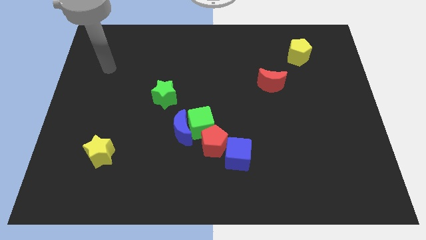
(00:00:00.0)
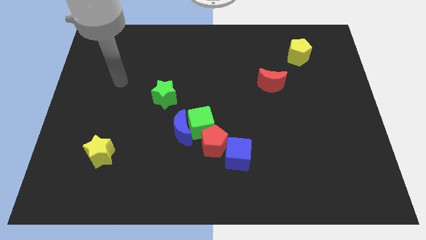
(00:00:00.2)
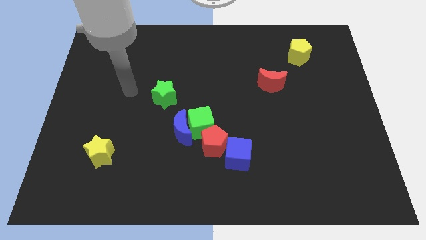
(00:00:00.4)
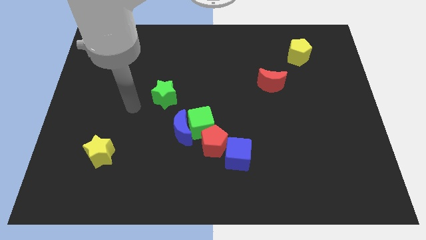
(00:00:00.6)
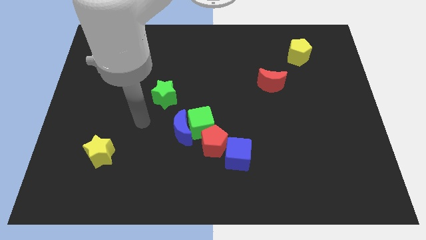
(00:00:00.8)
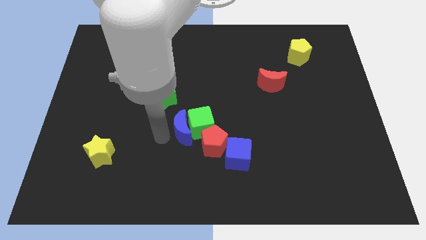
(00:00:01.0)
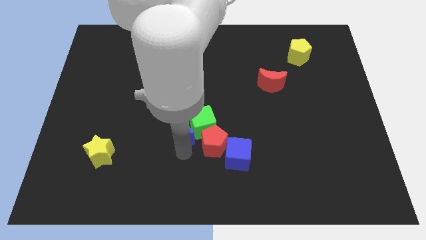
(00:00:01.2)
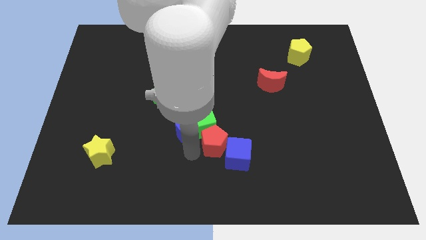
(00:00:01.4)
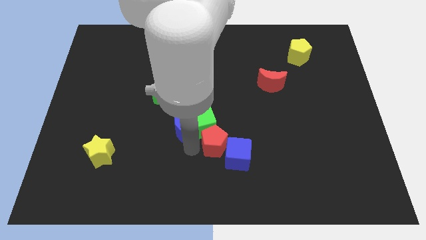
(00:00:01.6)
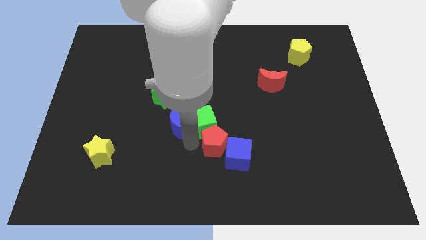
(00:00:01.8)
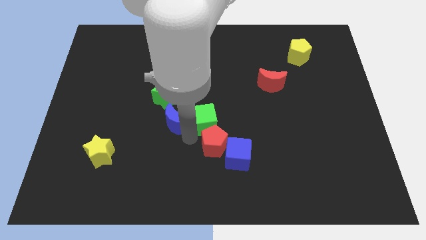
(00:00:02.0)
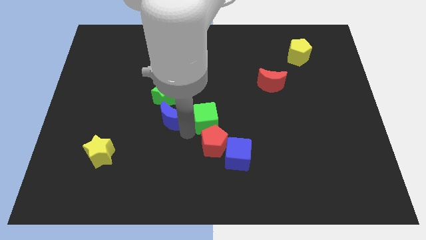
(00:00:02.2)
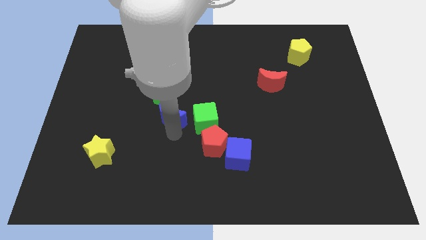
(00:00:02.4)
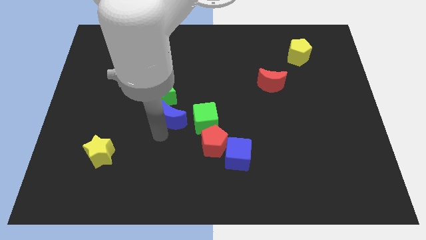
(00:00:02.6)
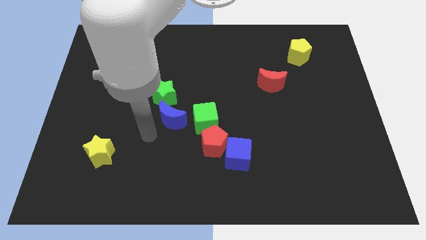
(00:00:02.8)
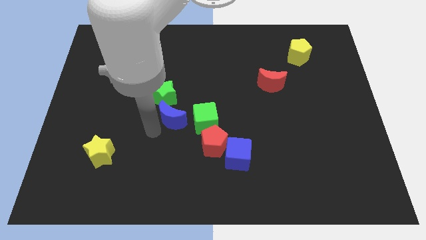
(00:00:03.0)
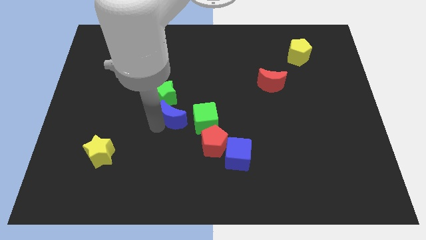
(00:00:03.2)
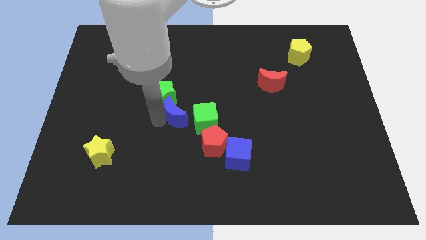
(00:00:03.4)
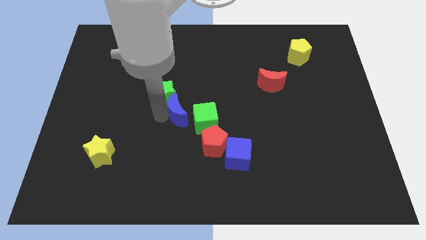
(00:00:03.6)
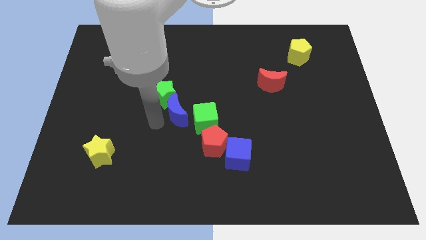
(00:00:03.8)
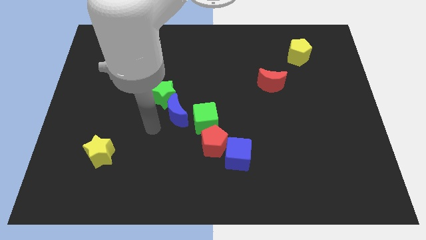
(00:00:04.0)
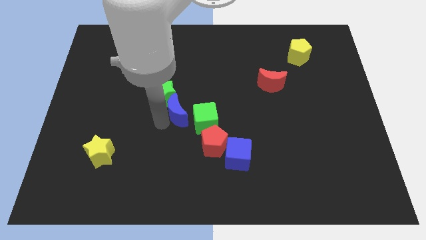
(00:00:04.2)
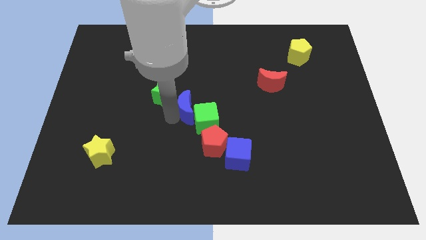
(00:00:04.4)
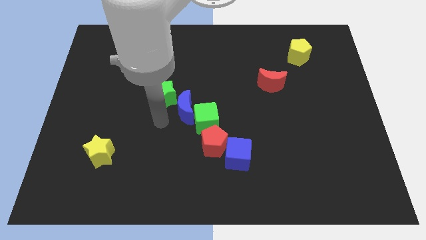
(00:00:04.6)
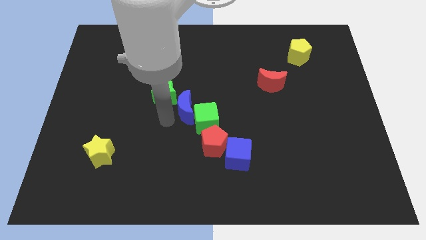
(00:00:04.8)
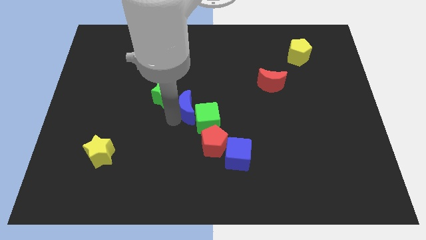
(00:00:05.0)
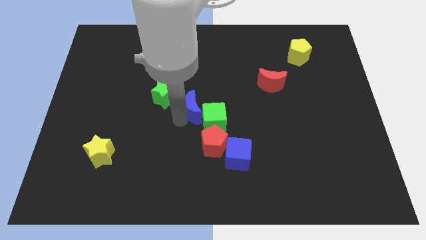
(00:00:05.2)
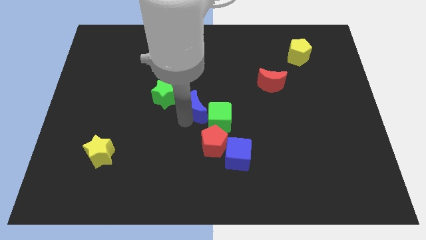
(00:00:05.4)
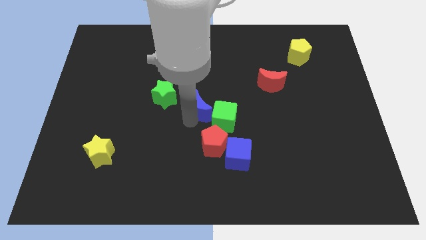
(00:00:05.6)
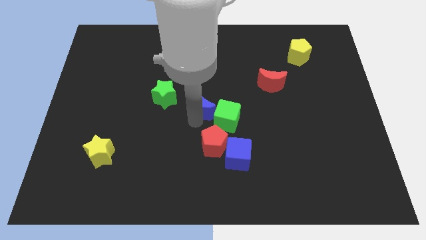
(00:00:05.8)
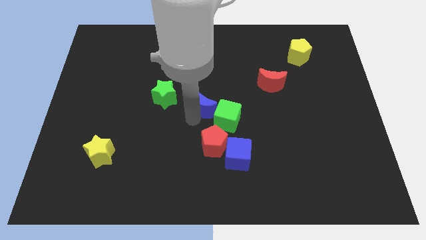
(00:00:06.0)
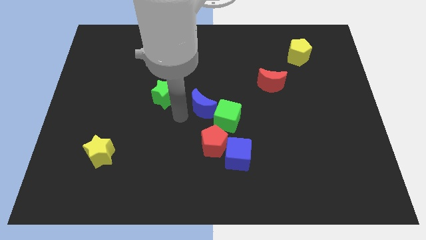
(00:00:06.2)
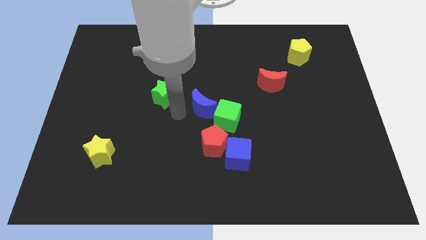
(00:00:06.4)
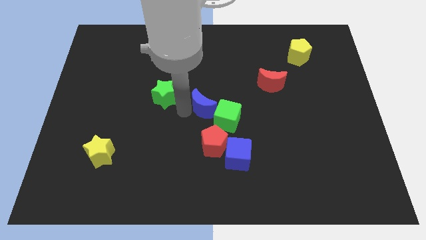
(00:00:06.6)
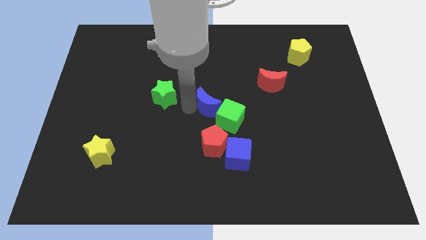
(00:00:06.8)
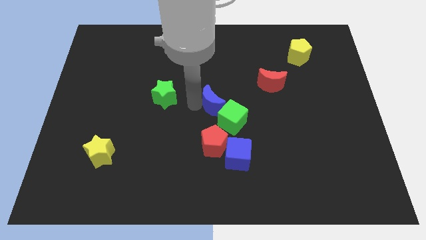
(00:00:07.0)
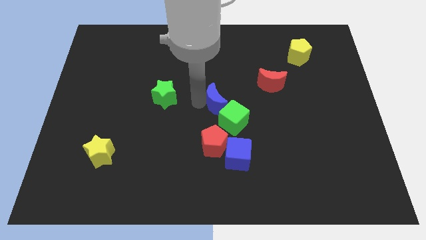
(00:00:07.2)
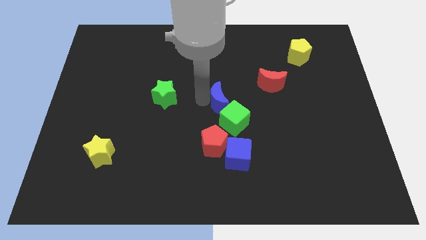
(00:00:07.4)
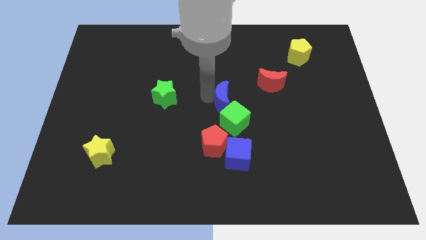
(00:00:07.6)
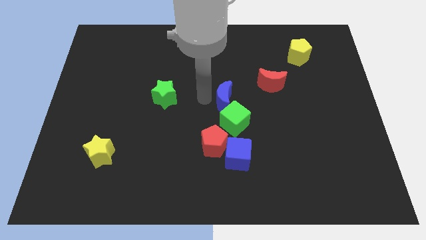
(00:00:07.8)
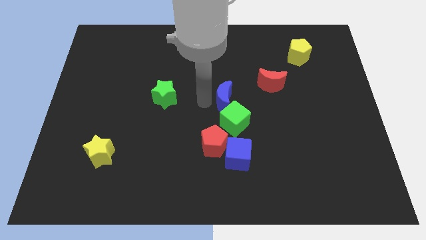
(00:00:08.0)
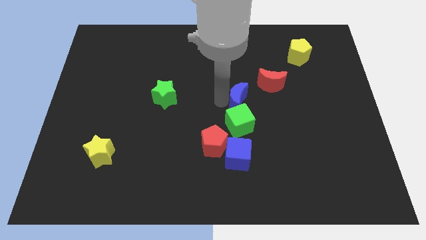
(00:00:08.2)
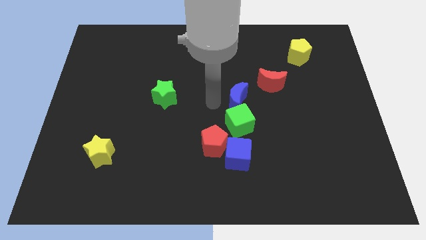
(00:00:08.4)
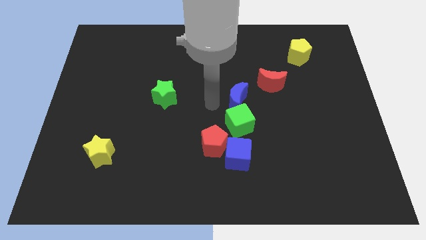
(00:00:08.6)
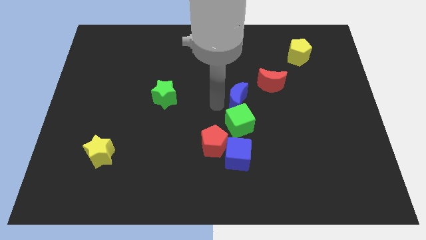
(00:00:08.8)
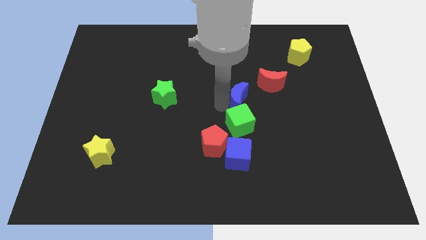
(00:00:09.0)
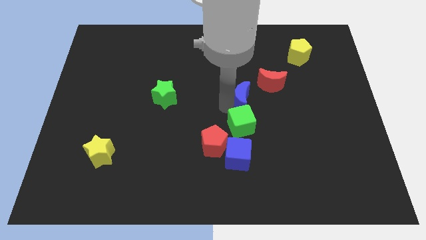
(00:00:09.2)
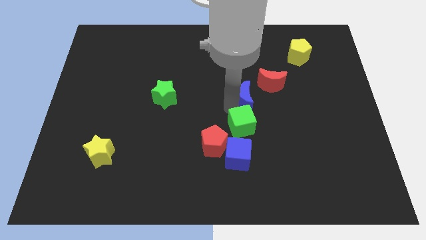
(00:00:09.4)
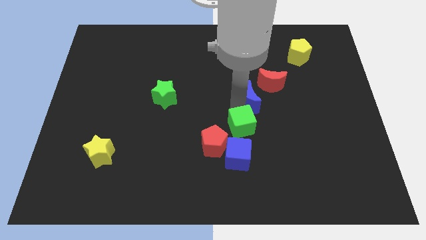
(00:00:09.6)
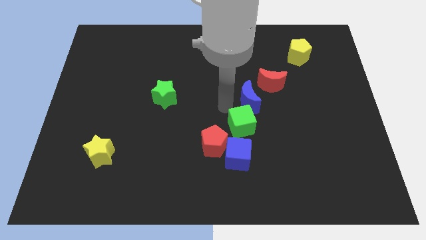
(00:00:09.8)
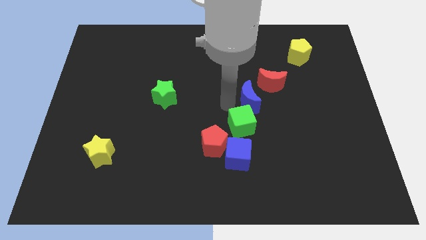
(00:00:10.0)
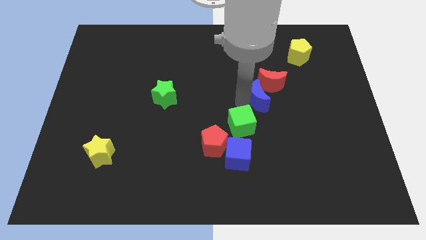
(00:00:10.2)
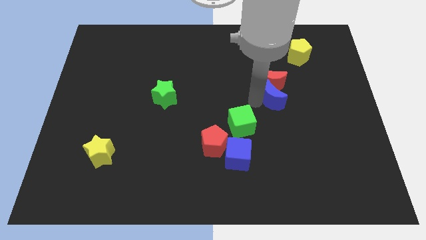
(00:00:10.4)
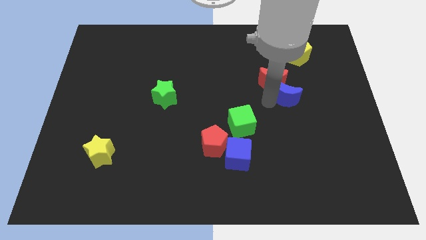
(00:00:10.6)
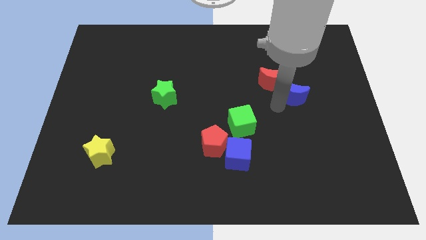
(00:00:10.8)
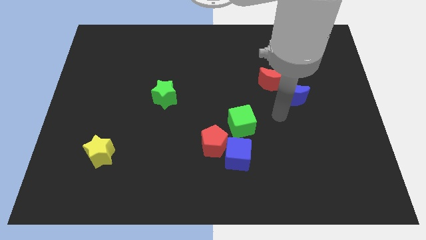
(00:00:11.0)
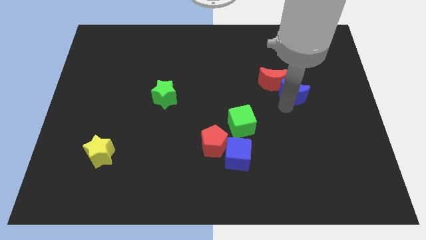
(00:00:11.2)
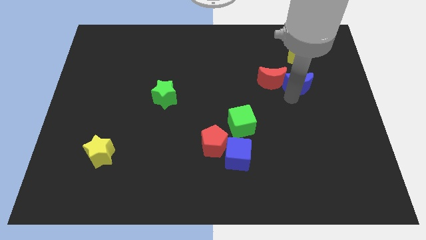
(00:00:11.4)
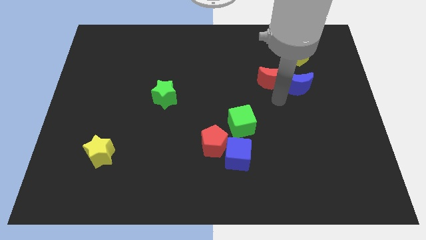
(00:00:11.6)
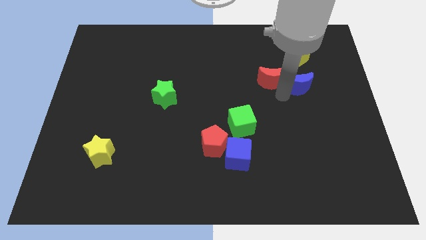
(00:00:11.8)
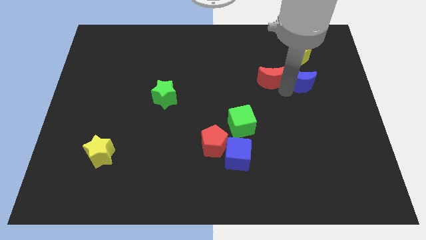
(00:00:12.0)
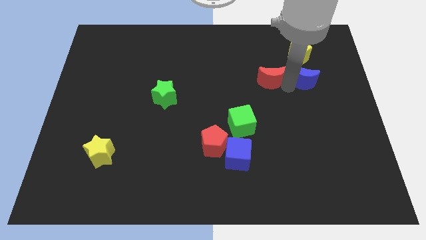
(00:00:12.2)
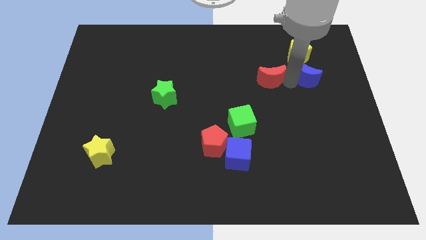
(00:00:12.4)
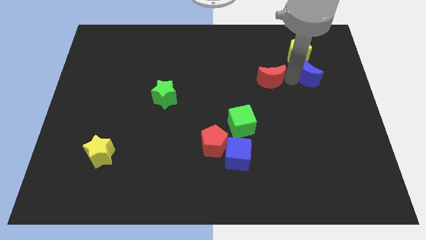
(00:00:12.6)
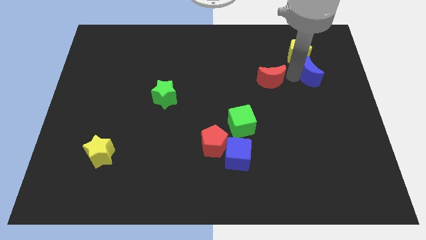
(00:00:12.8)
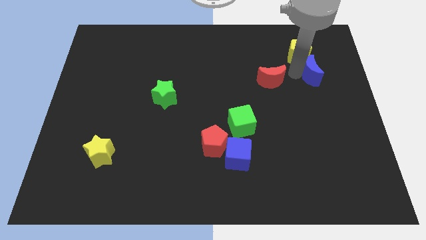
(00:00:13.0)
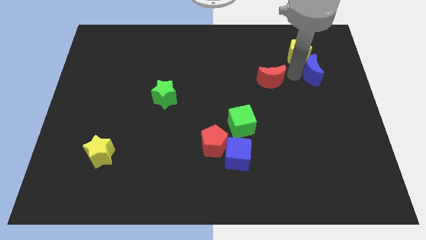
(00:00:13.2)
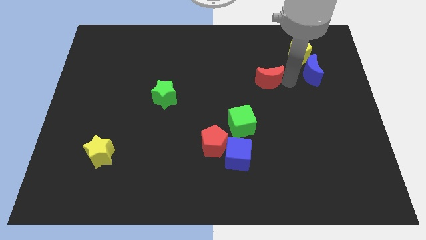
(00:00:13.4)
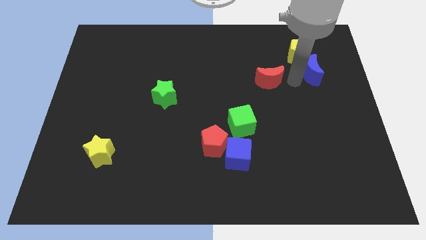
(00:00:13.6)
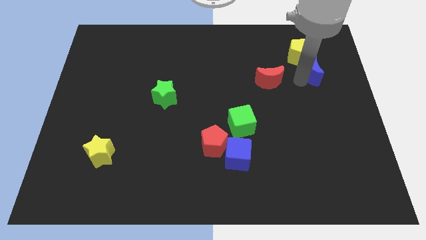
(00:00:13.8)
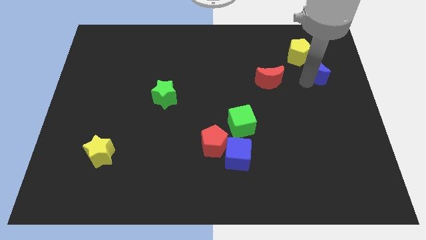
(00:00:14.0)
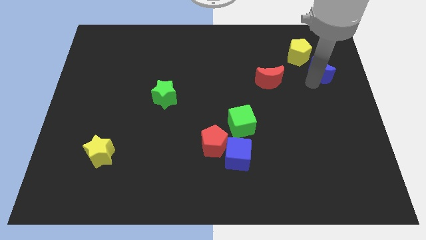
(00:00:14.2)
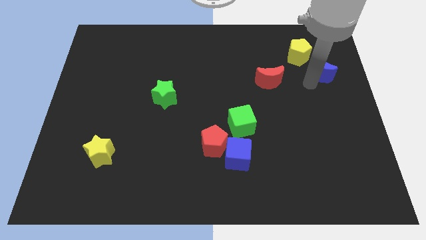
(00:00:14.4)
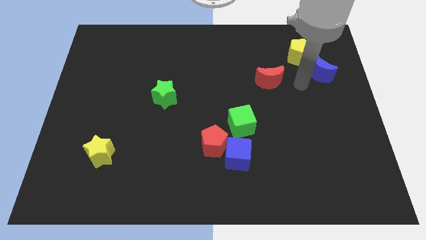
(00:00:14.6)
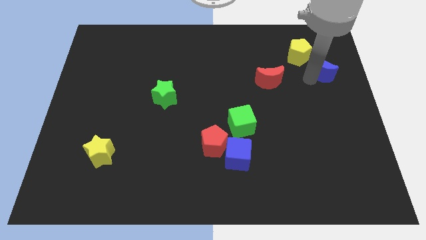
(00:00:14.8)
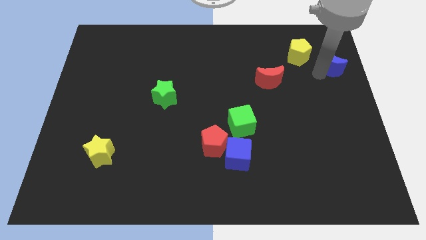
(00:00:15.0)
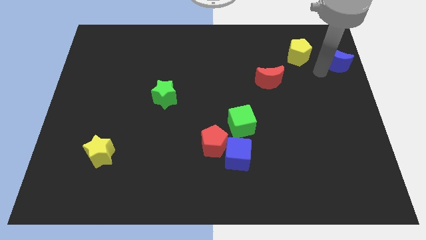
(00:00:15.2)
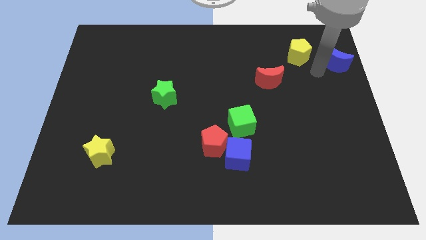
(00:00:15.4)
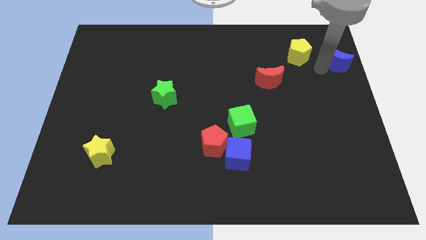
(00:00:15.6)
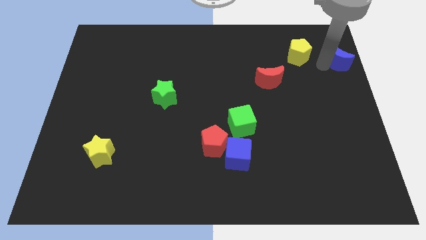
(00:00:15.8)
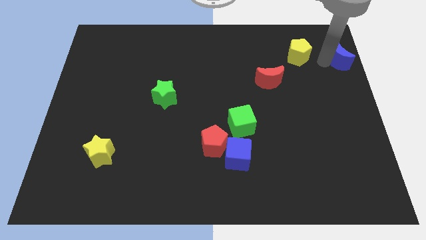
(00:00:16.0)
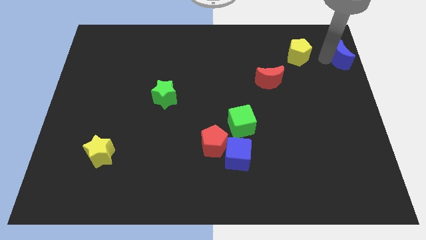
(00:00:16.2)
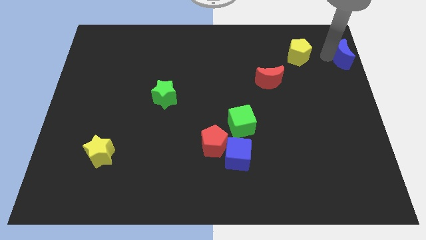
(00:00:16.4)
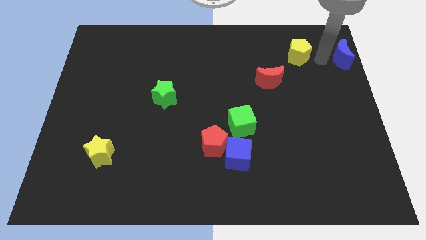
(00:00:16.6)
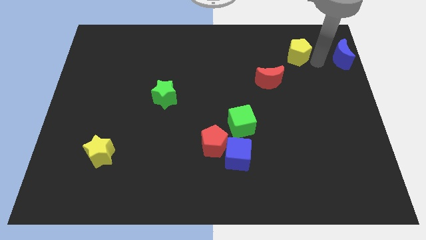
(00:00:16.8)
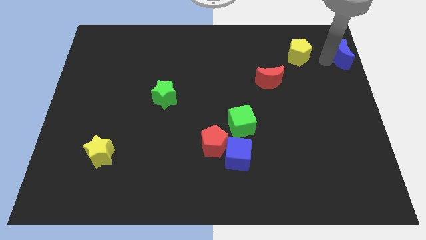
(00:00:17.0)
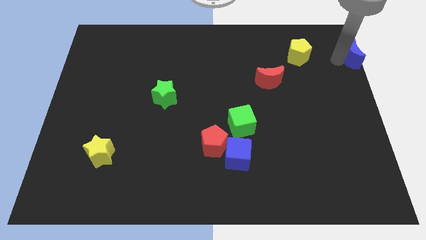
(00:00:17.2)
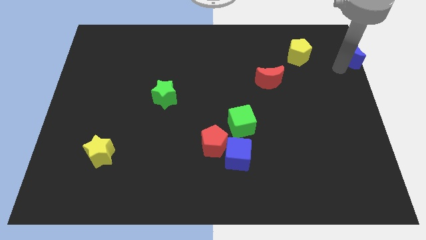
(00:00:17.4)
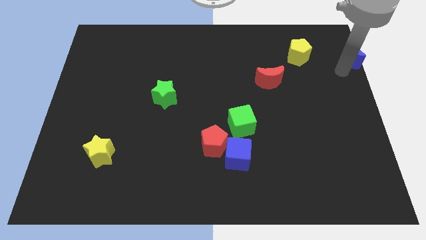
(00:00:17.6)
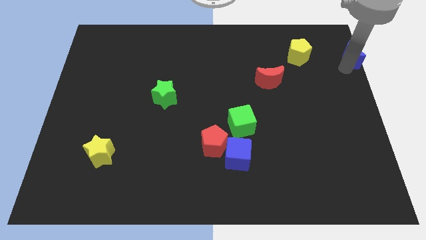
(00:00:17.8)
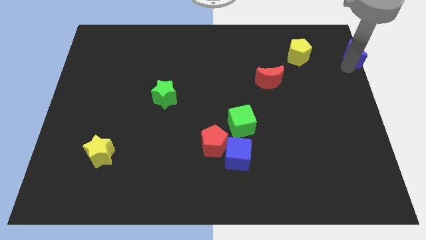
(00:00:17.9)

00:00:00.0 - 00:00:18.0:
move the blue moon to the upper right corner
